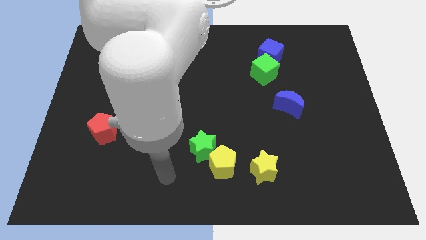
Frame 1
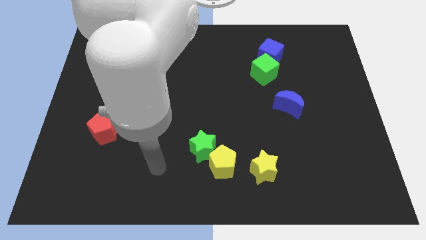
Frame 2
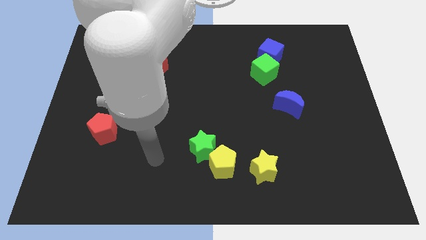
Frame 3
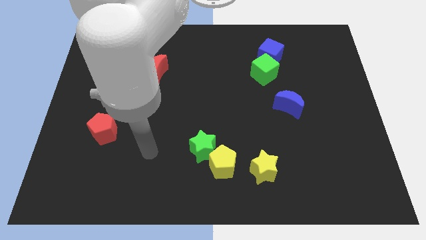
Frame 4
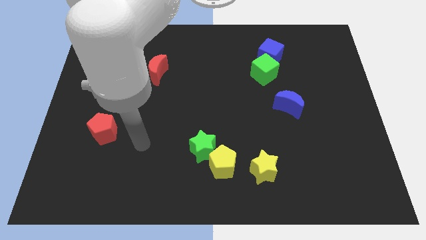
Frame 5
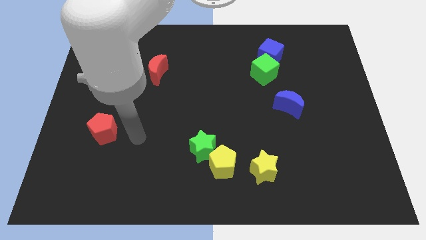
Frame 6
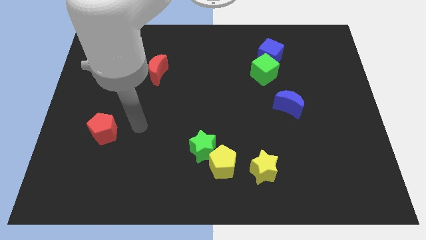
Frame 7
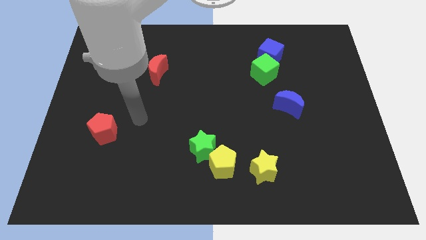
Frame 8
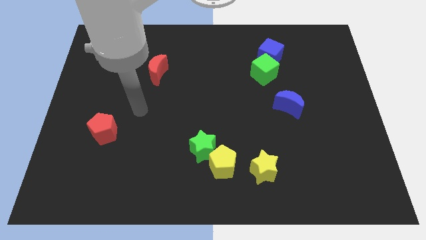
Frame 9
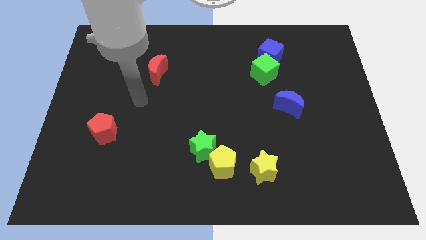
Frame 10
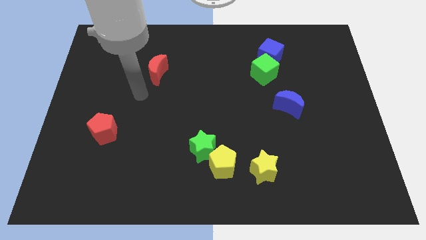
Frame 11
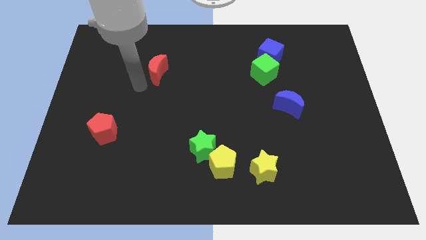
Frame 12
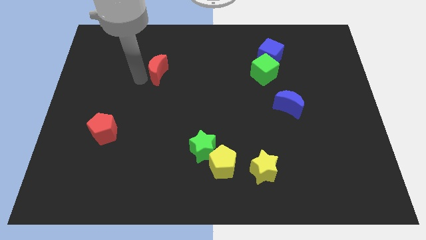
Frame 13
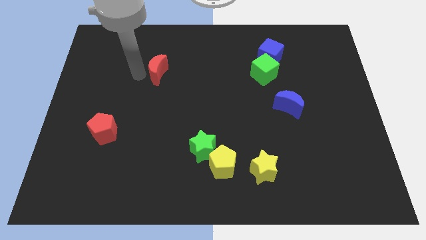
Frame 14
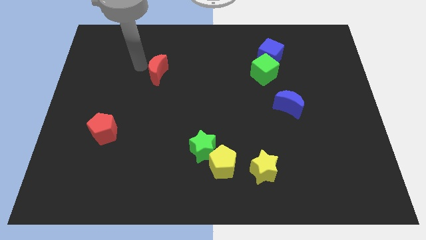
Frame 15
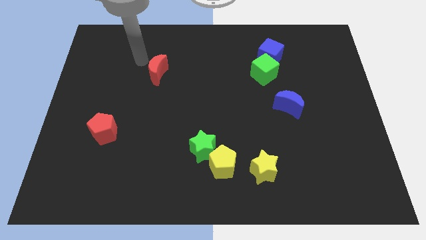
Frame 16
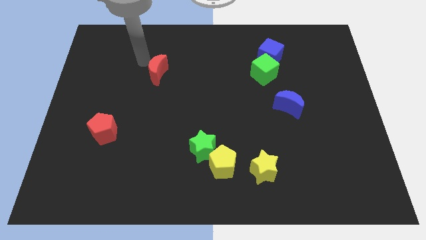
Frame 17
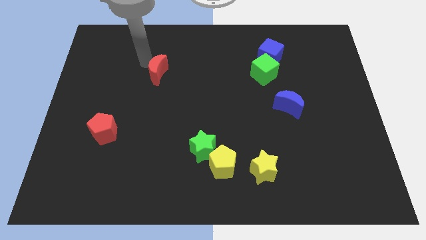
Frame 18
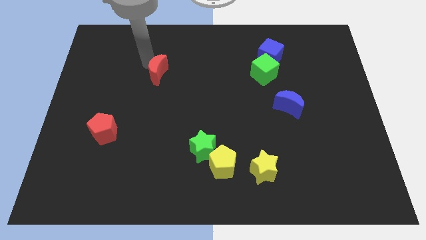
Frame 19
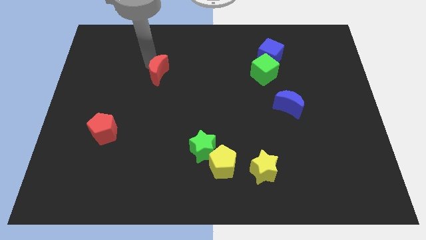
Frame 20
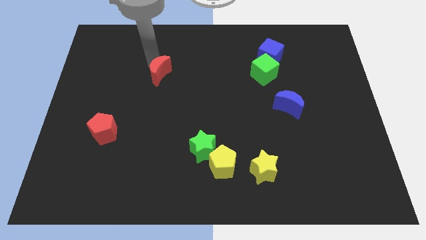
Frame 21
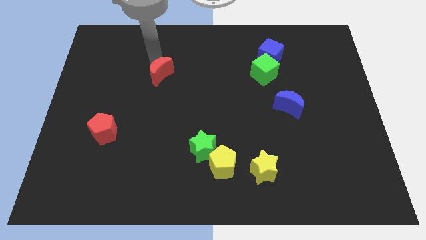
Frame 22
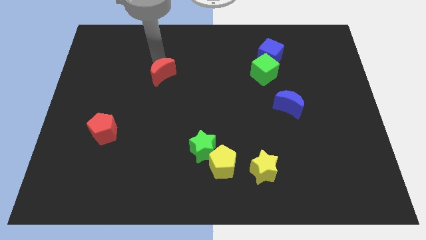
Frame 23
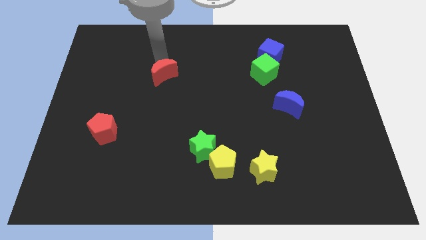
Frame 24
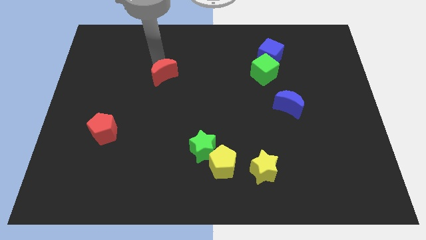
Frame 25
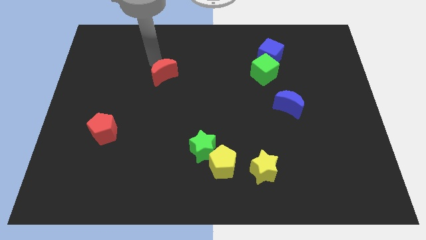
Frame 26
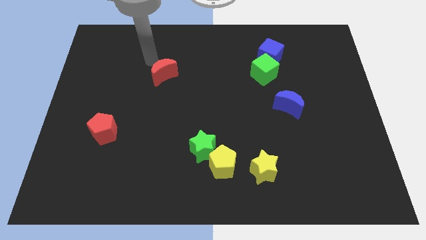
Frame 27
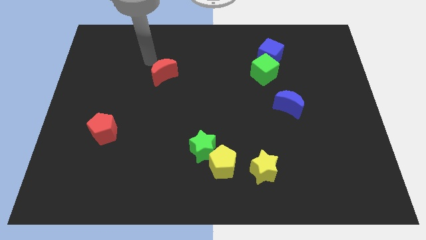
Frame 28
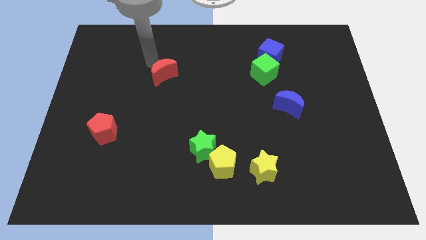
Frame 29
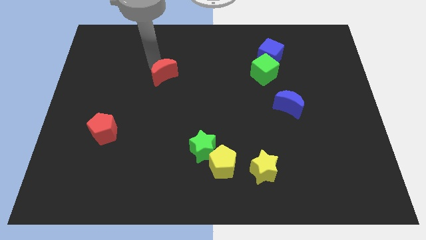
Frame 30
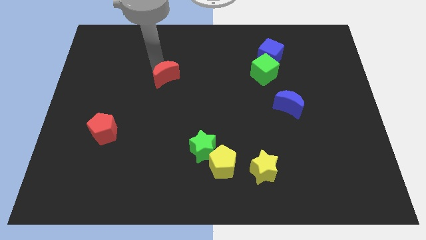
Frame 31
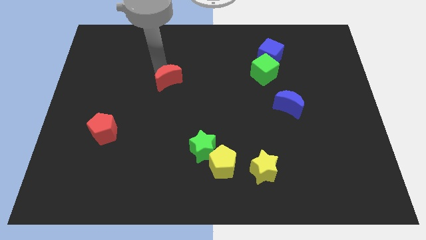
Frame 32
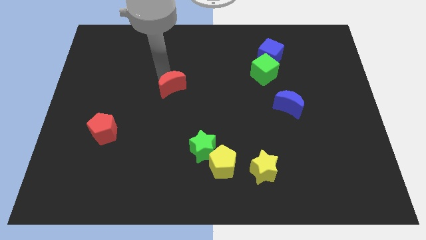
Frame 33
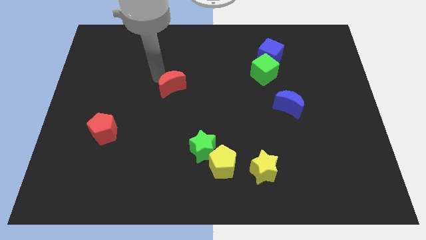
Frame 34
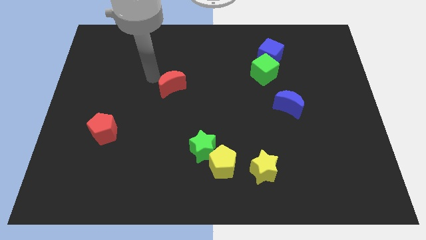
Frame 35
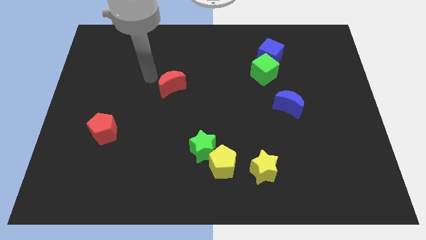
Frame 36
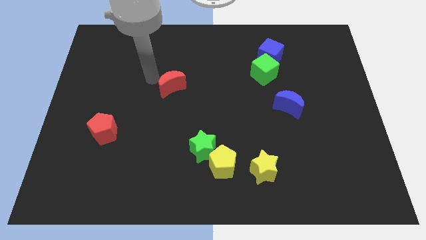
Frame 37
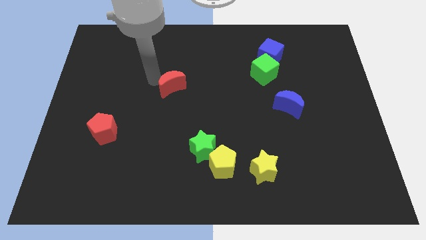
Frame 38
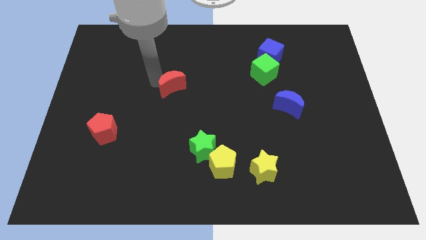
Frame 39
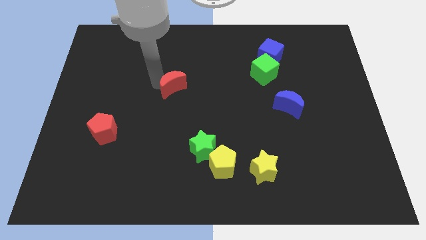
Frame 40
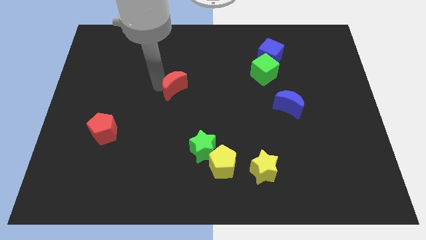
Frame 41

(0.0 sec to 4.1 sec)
move the red moon downwards and then to the right a little

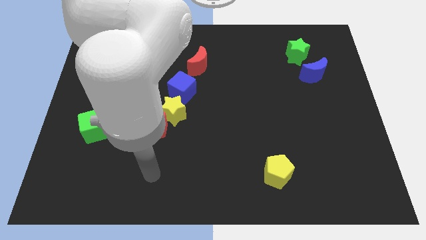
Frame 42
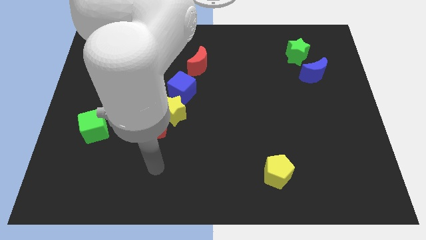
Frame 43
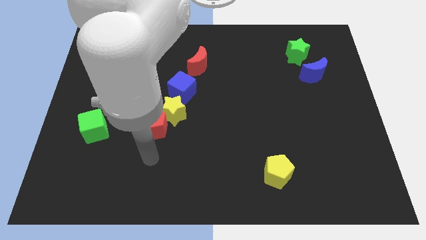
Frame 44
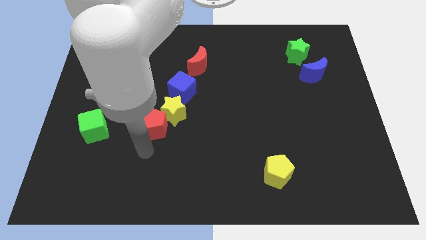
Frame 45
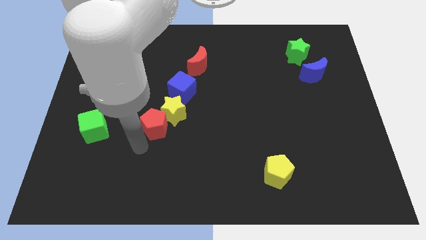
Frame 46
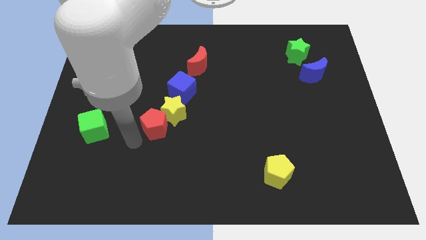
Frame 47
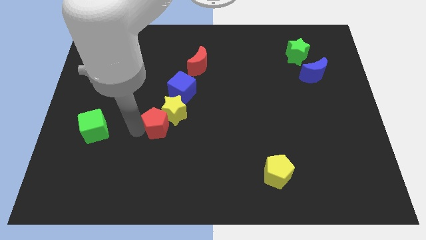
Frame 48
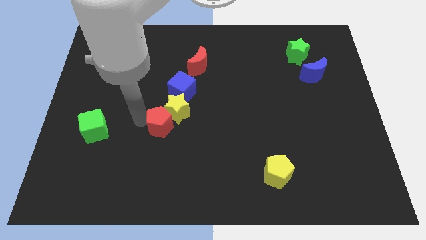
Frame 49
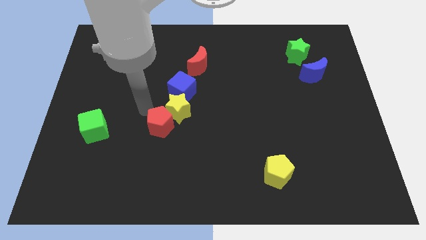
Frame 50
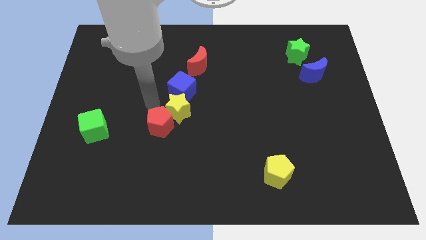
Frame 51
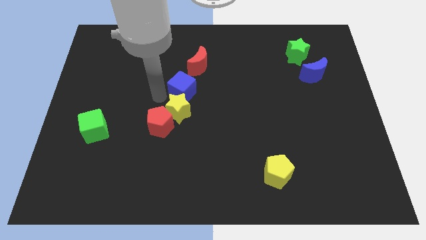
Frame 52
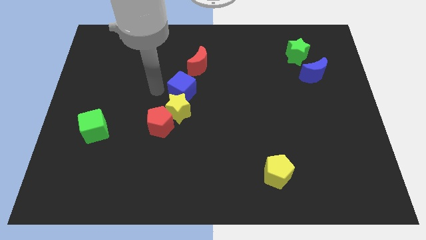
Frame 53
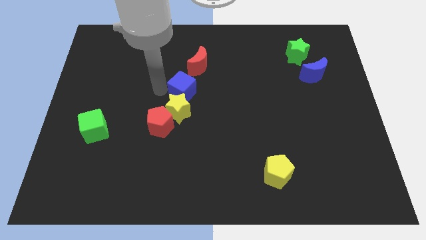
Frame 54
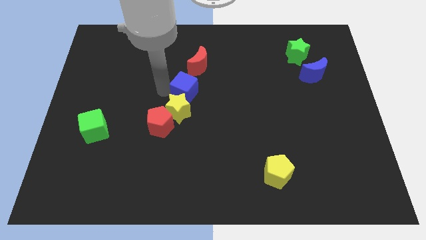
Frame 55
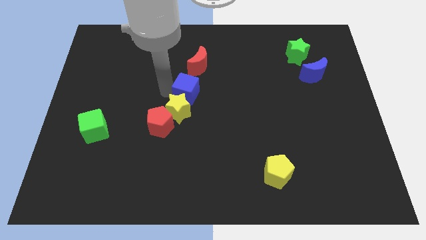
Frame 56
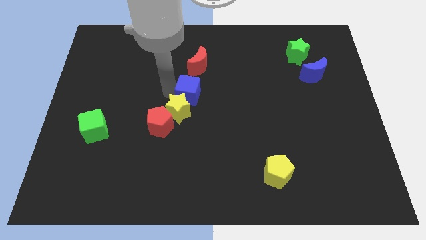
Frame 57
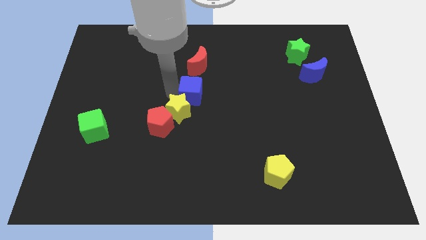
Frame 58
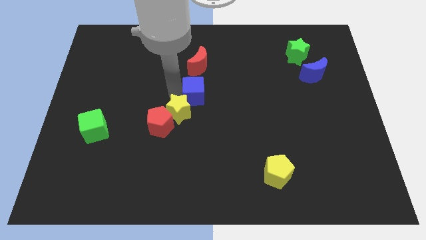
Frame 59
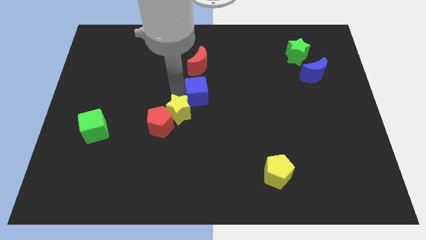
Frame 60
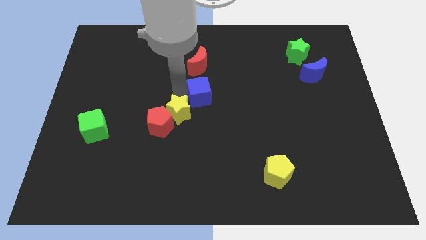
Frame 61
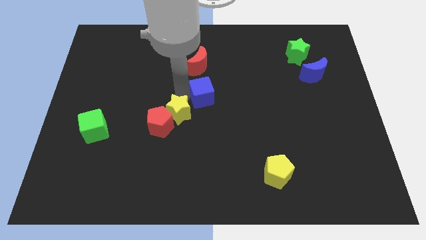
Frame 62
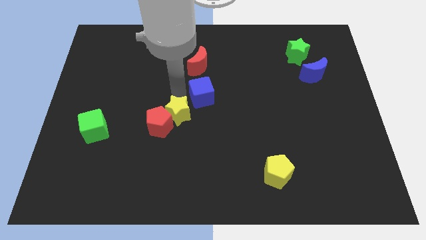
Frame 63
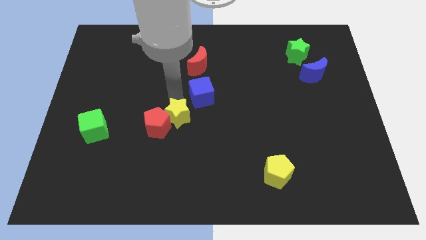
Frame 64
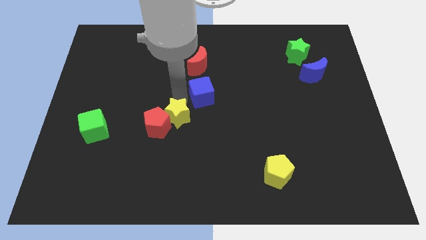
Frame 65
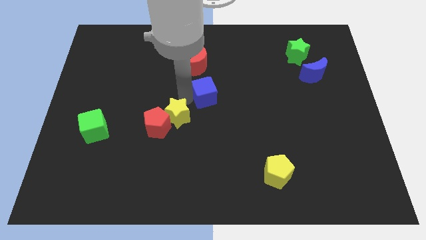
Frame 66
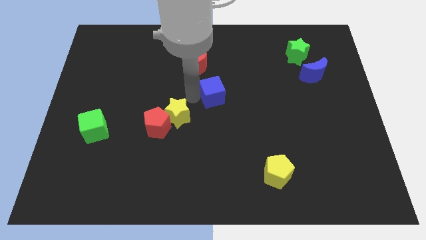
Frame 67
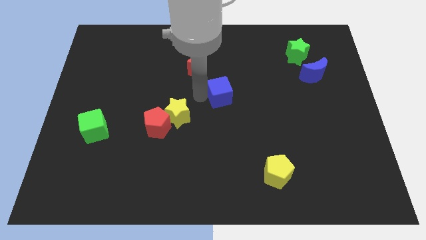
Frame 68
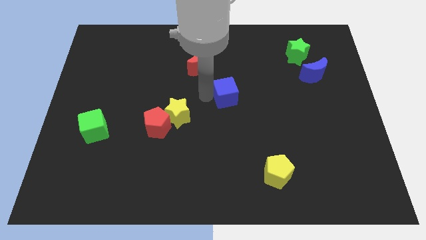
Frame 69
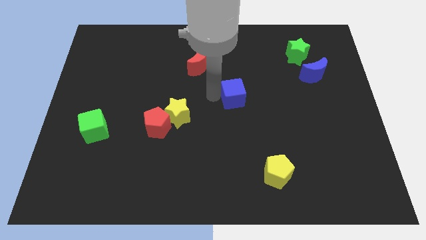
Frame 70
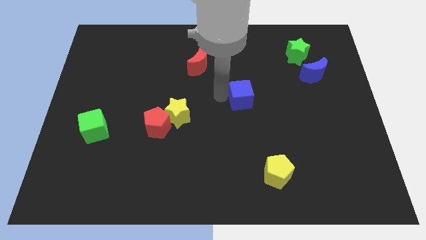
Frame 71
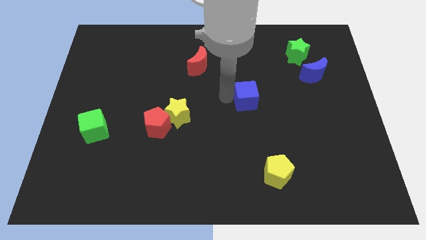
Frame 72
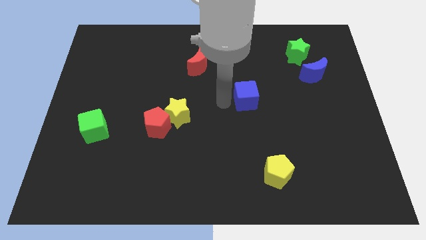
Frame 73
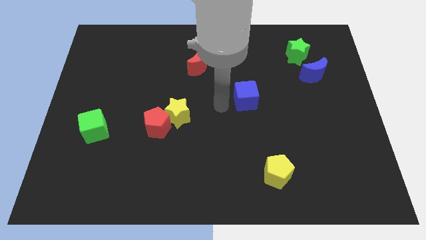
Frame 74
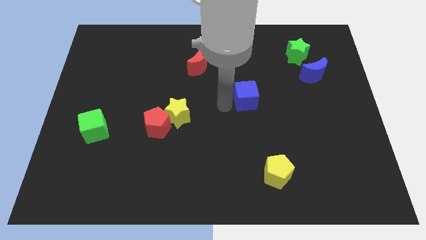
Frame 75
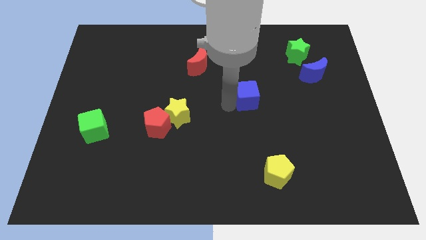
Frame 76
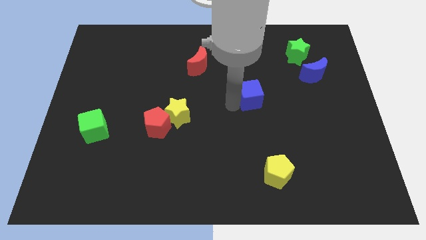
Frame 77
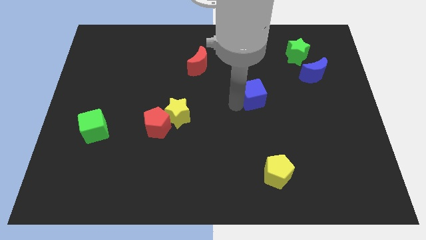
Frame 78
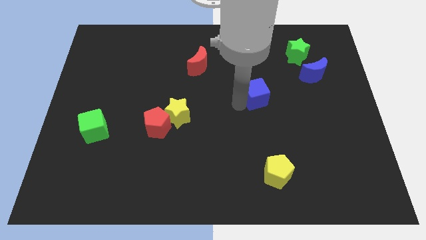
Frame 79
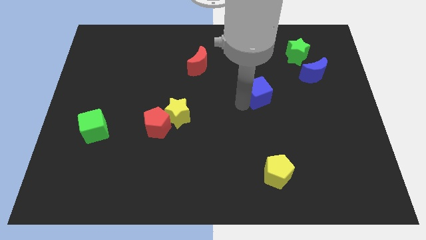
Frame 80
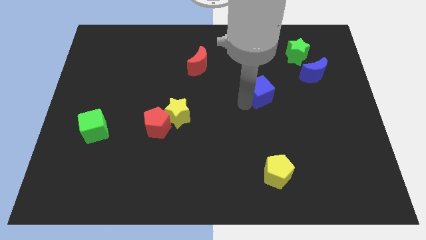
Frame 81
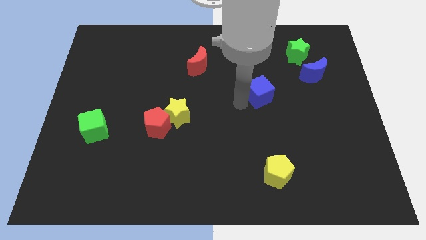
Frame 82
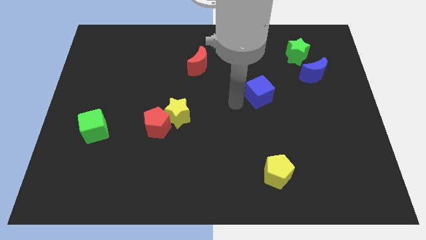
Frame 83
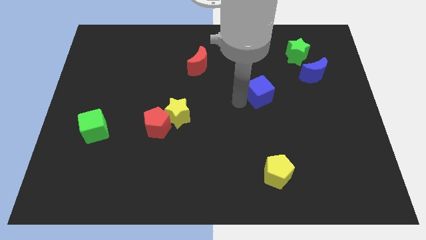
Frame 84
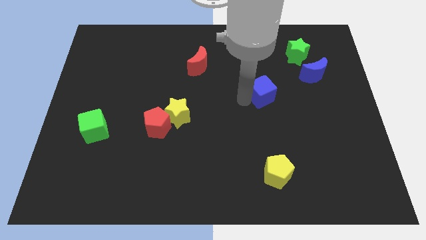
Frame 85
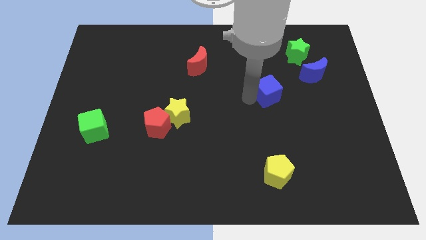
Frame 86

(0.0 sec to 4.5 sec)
move the blue cube to the right
